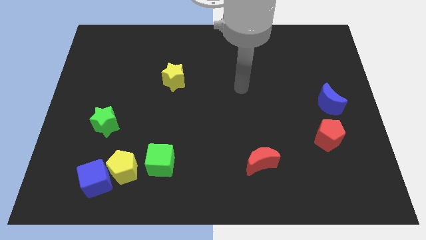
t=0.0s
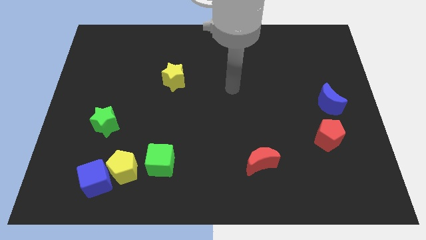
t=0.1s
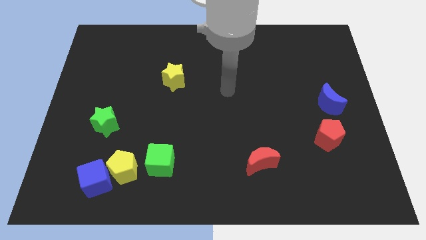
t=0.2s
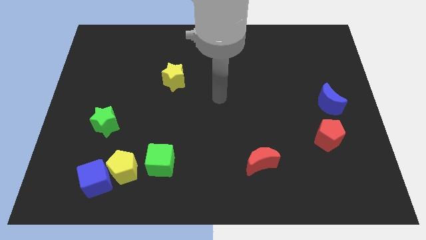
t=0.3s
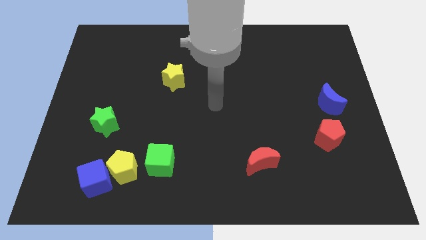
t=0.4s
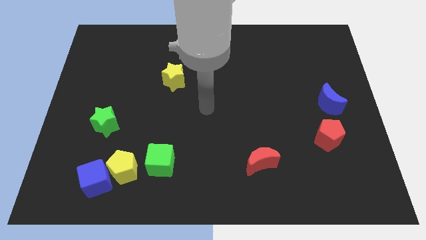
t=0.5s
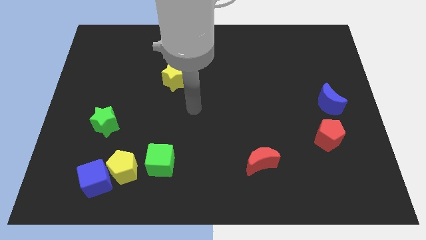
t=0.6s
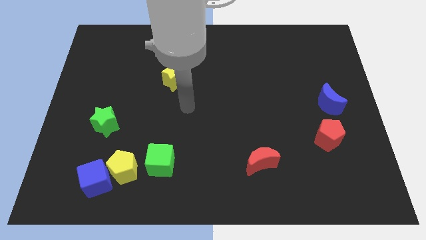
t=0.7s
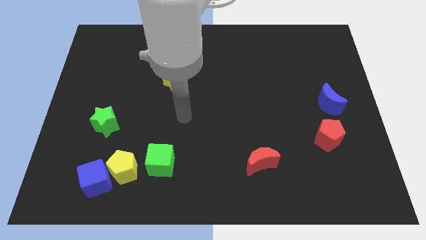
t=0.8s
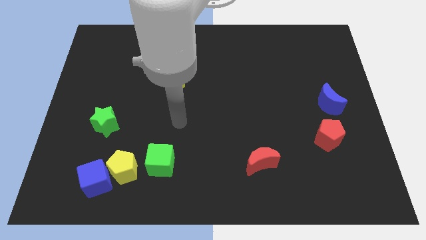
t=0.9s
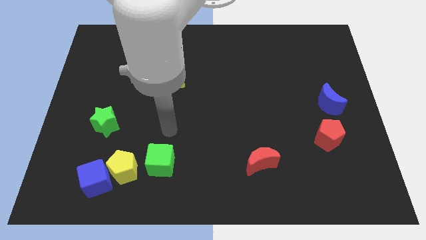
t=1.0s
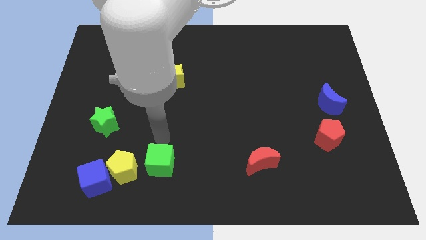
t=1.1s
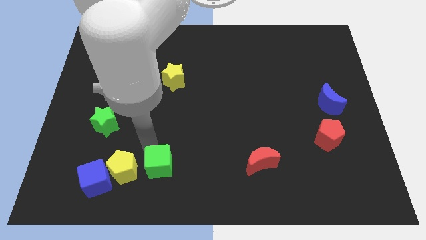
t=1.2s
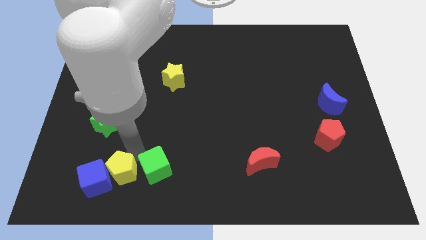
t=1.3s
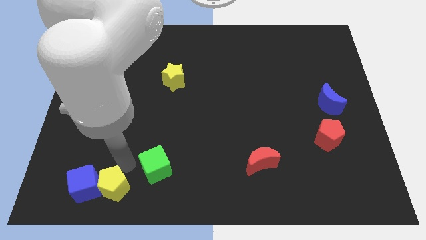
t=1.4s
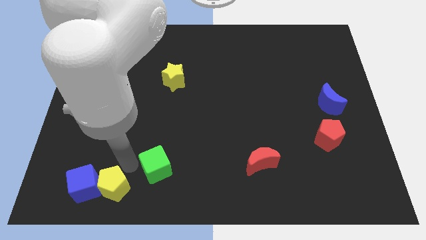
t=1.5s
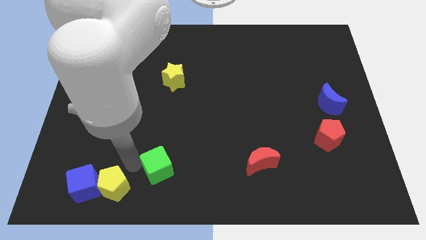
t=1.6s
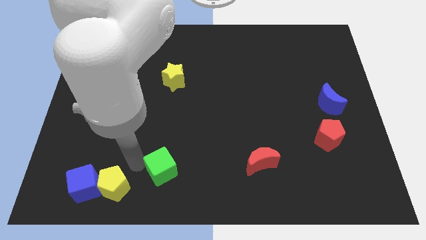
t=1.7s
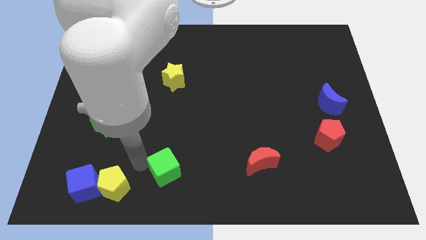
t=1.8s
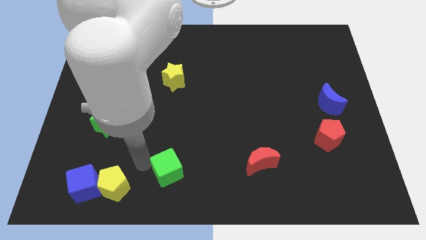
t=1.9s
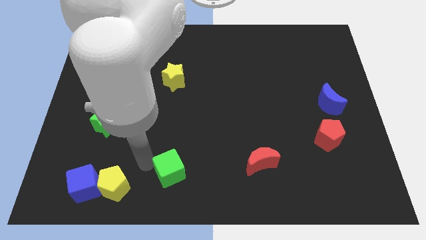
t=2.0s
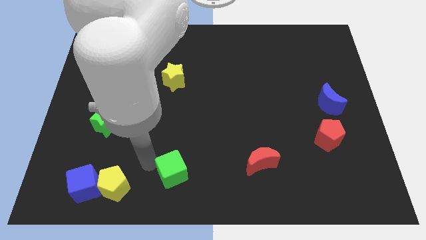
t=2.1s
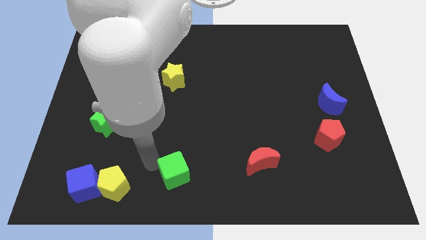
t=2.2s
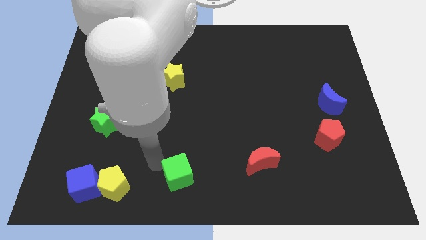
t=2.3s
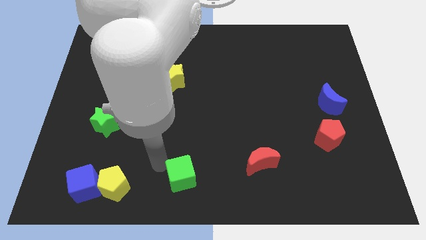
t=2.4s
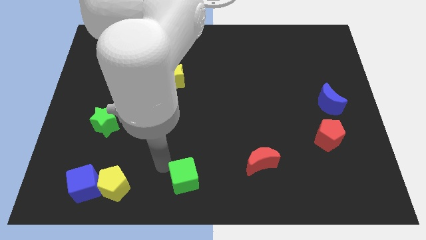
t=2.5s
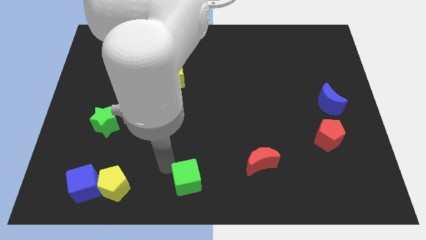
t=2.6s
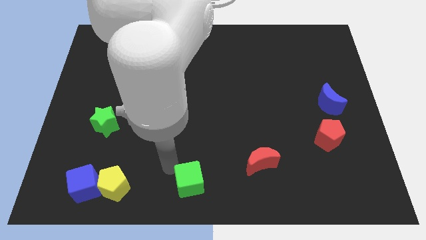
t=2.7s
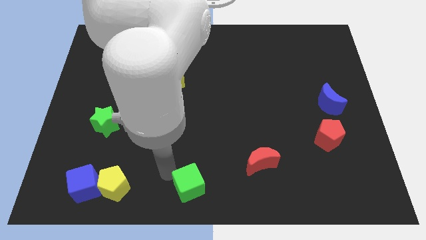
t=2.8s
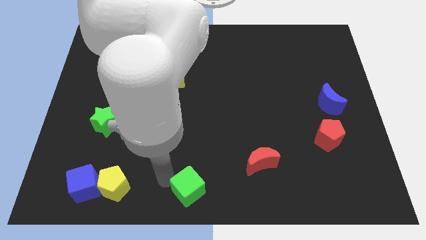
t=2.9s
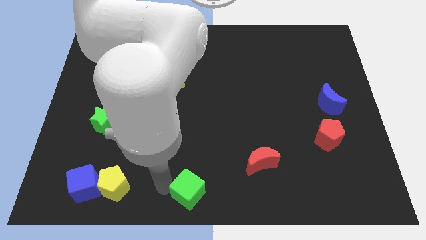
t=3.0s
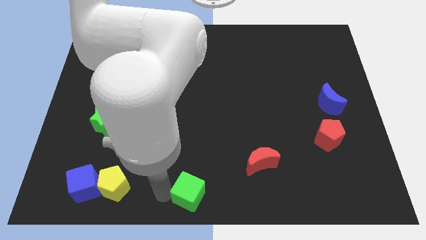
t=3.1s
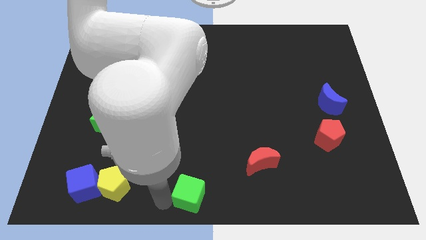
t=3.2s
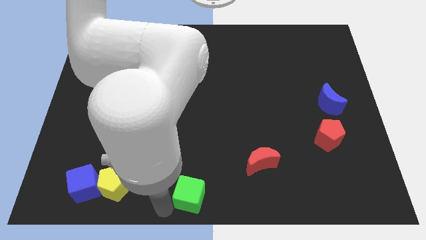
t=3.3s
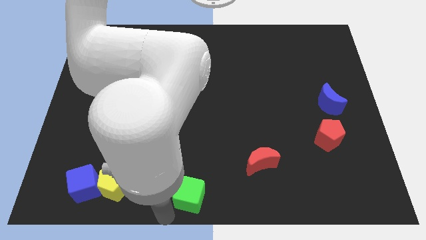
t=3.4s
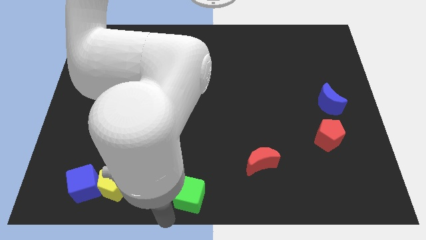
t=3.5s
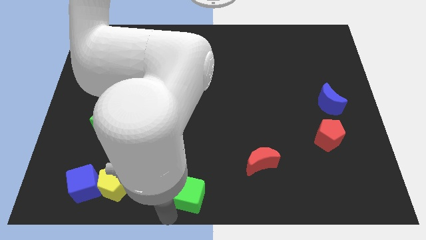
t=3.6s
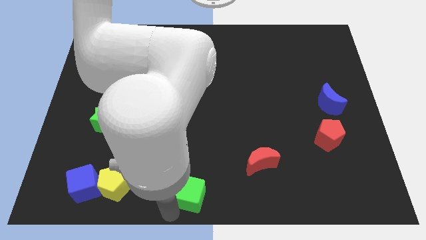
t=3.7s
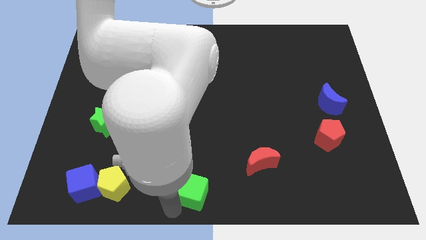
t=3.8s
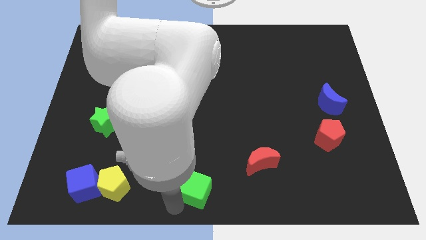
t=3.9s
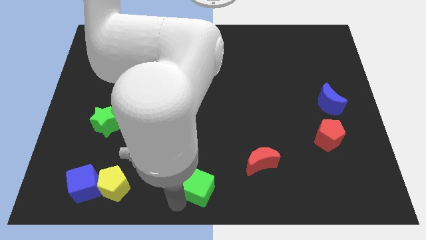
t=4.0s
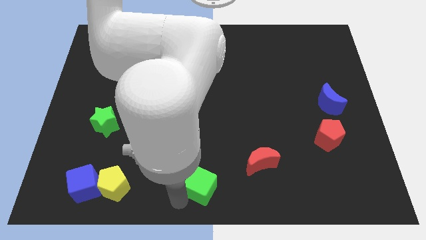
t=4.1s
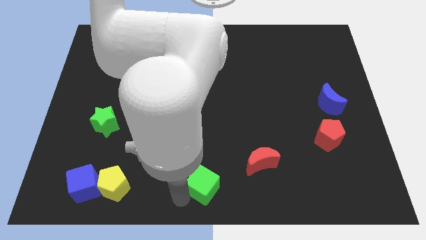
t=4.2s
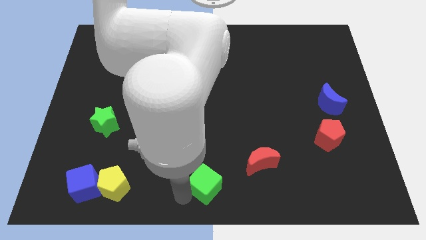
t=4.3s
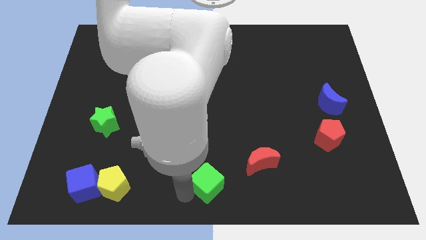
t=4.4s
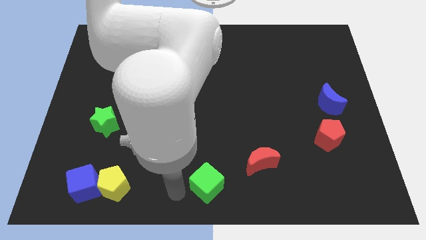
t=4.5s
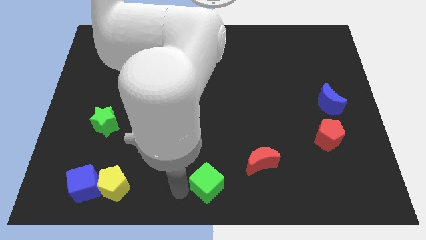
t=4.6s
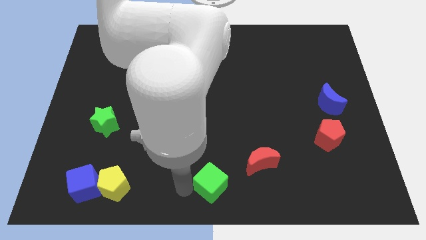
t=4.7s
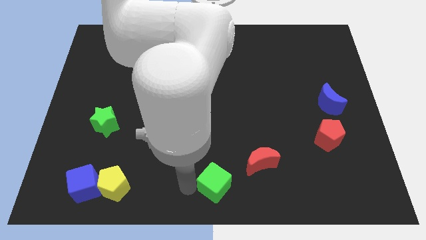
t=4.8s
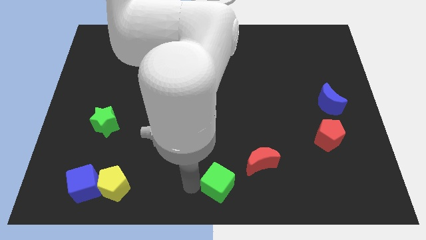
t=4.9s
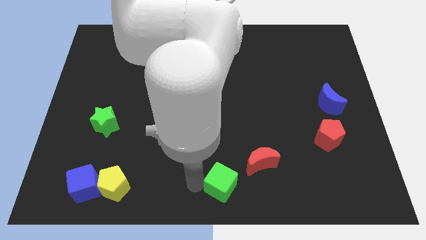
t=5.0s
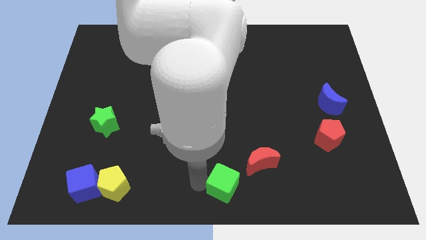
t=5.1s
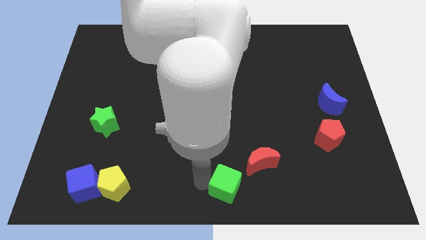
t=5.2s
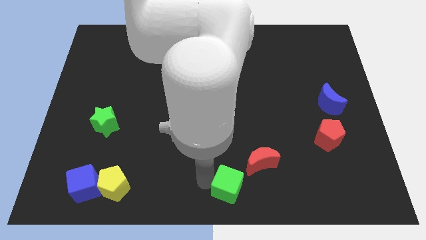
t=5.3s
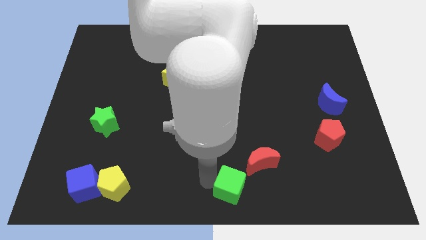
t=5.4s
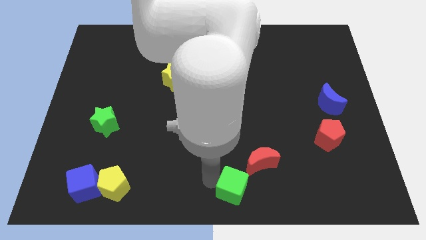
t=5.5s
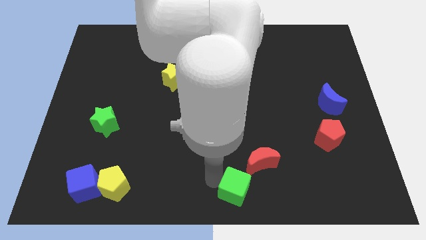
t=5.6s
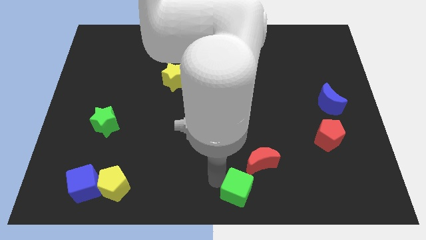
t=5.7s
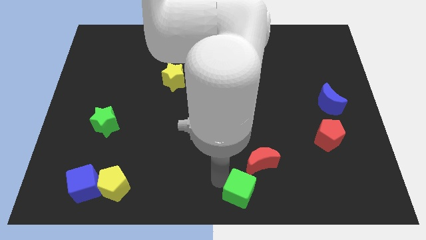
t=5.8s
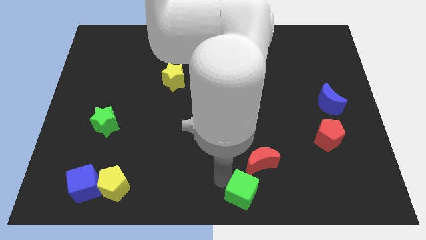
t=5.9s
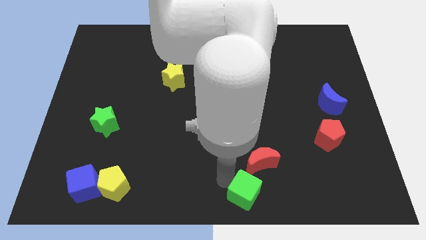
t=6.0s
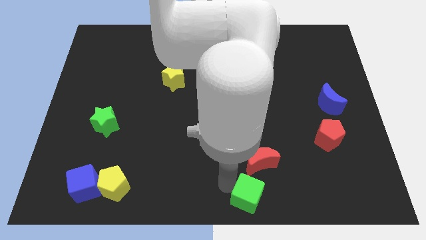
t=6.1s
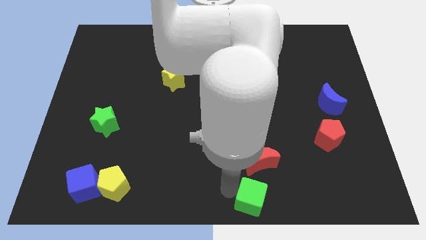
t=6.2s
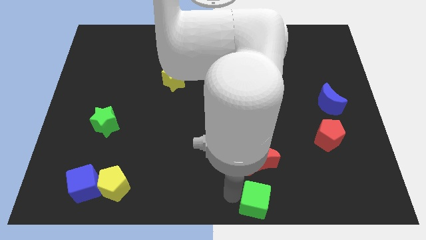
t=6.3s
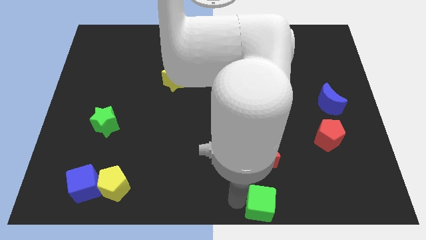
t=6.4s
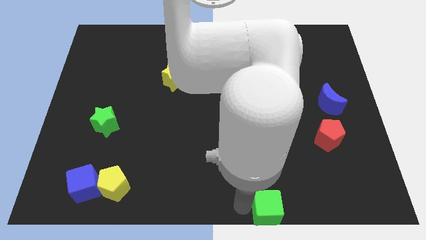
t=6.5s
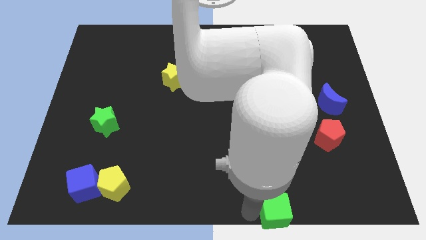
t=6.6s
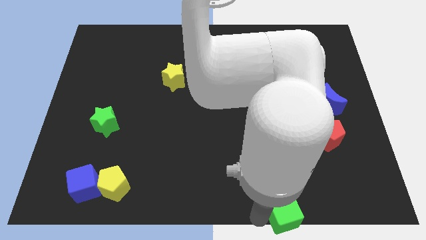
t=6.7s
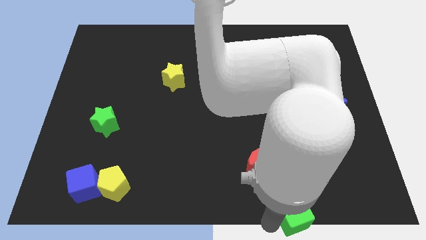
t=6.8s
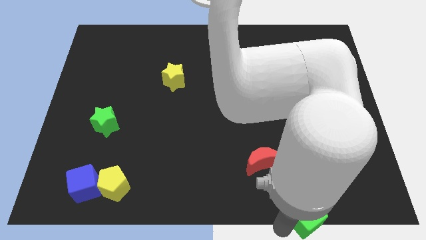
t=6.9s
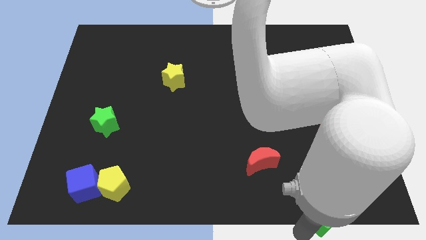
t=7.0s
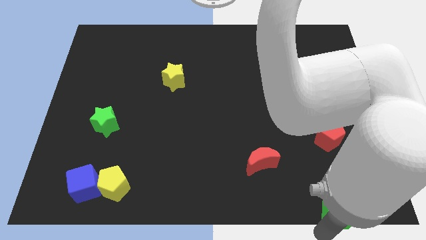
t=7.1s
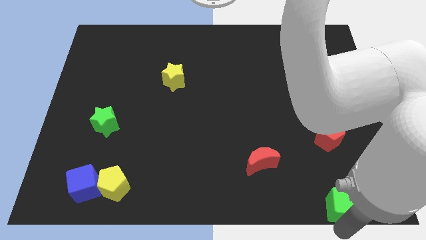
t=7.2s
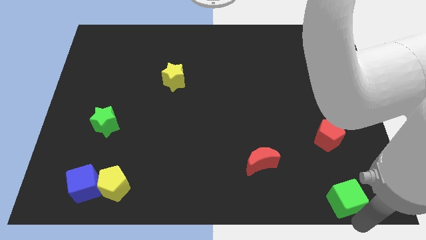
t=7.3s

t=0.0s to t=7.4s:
push the green cube to the bottom right
